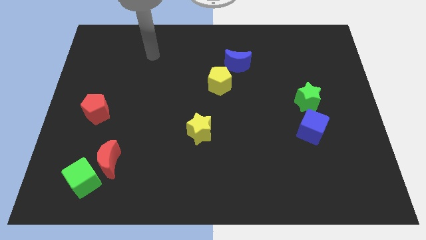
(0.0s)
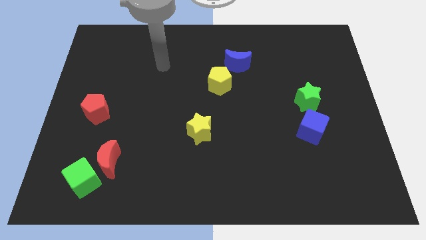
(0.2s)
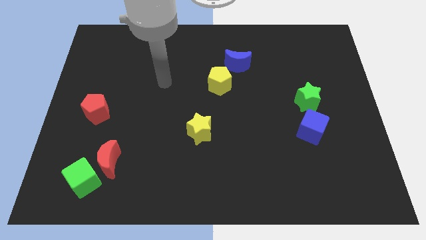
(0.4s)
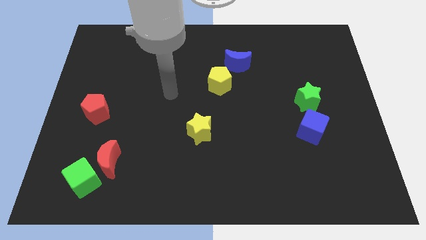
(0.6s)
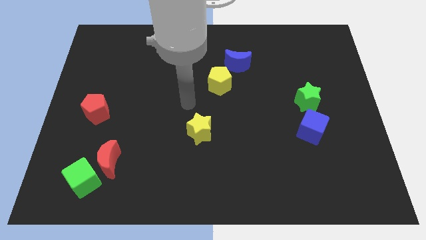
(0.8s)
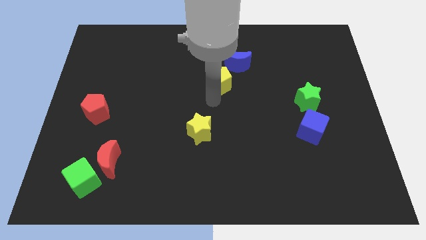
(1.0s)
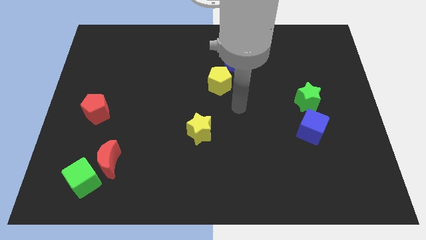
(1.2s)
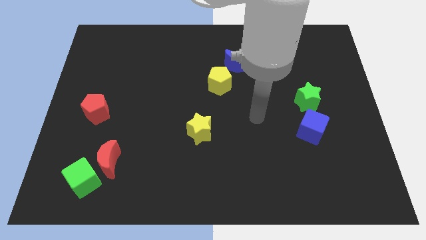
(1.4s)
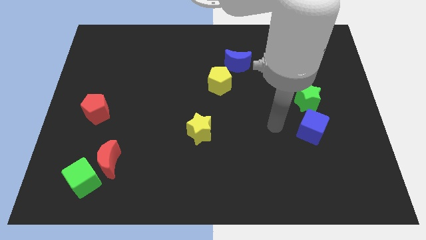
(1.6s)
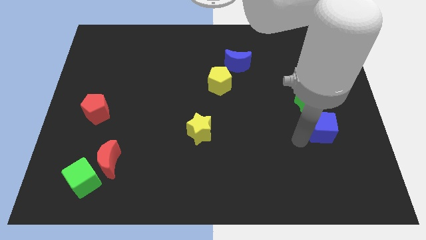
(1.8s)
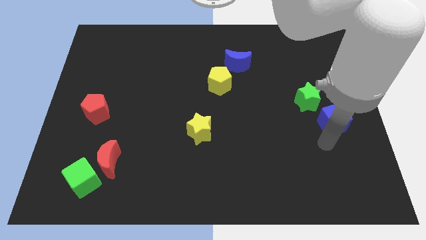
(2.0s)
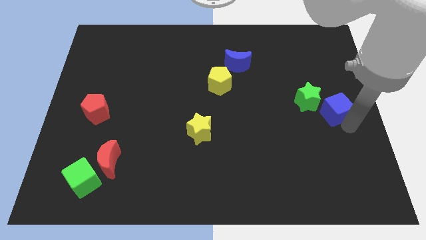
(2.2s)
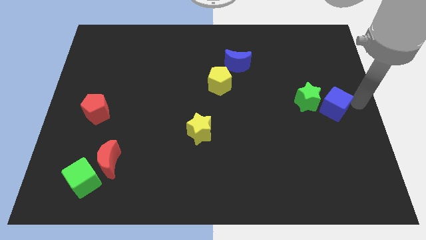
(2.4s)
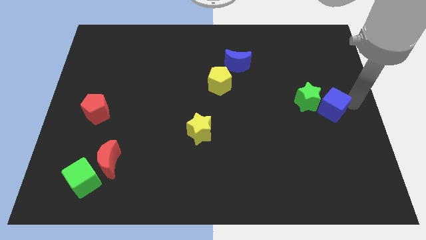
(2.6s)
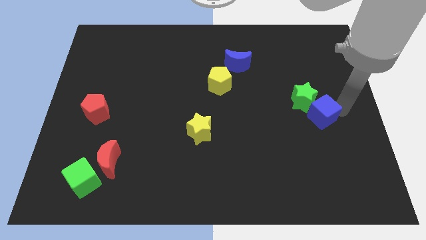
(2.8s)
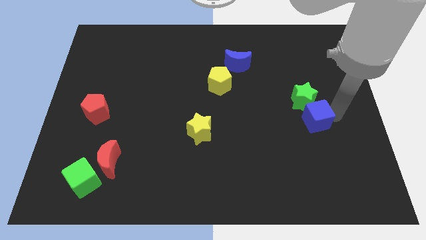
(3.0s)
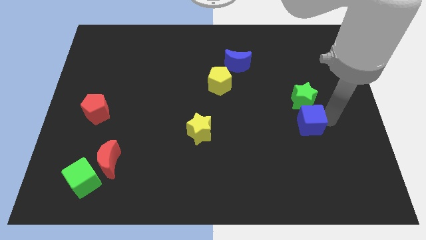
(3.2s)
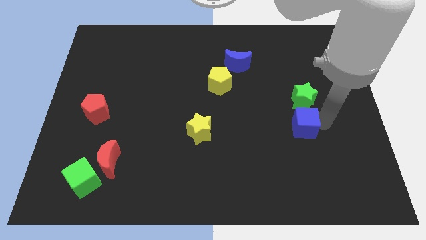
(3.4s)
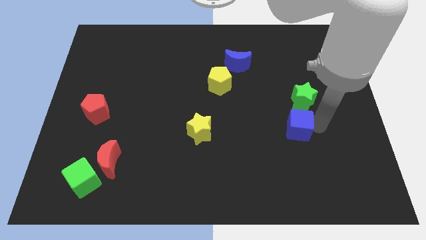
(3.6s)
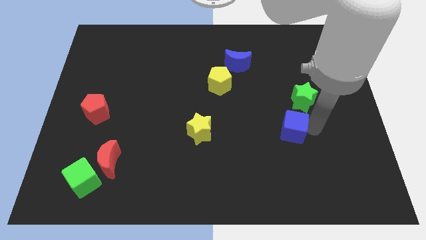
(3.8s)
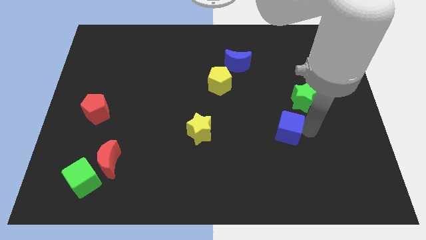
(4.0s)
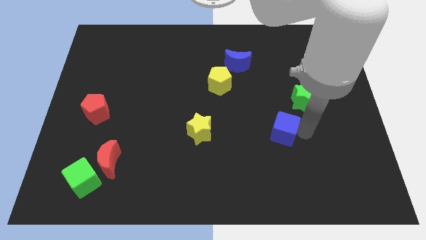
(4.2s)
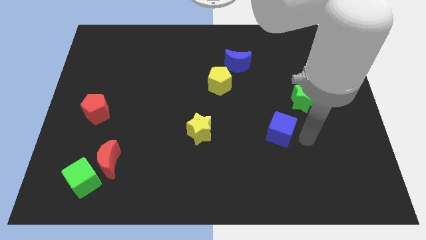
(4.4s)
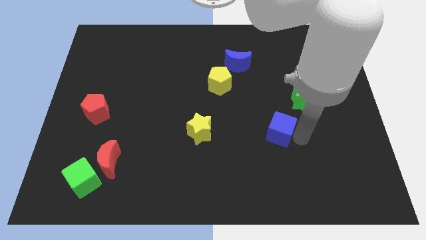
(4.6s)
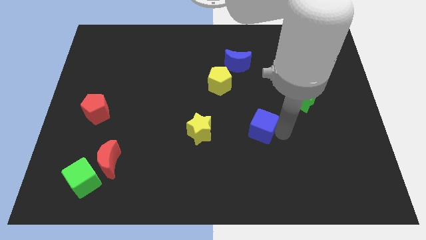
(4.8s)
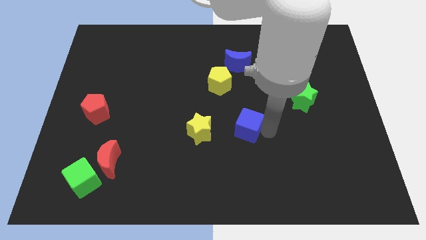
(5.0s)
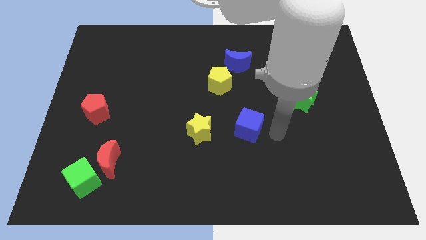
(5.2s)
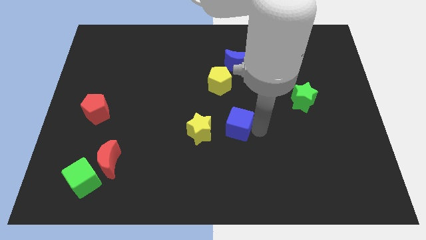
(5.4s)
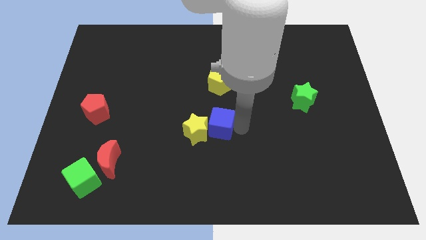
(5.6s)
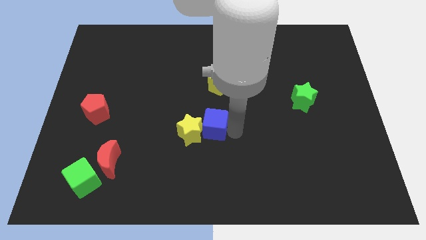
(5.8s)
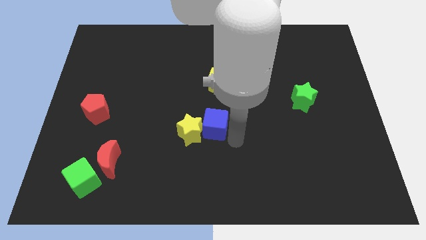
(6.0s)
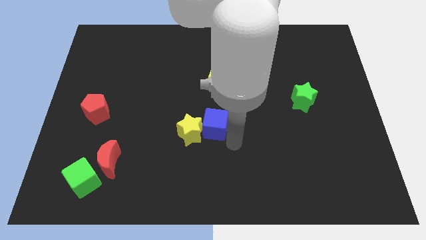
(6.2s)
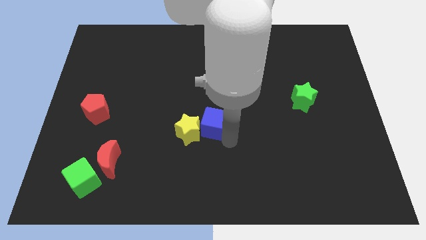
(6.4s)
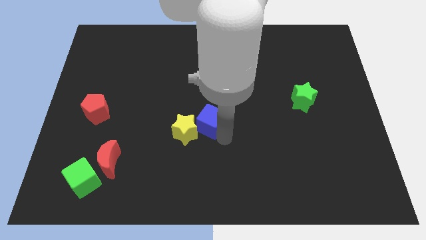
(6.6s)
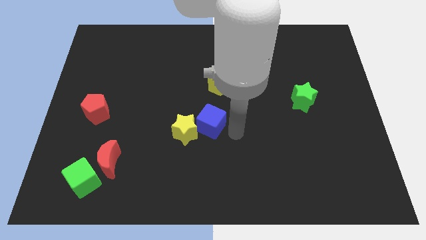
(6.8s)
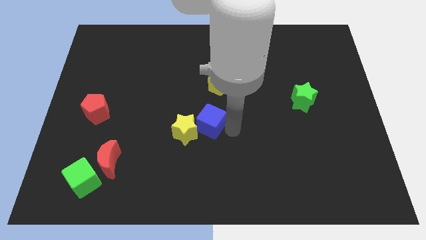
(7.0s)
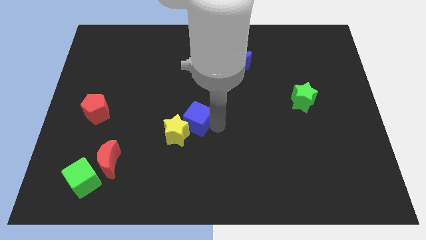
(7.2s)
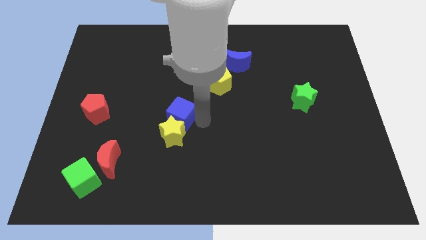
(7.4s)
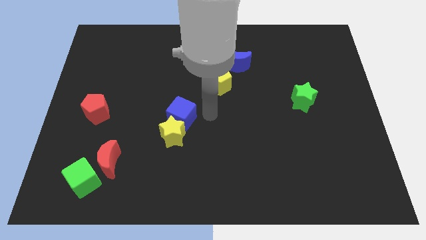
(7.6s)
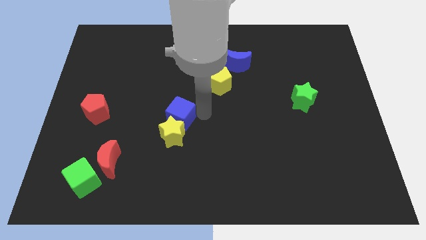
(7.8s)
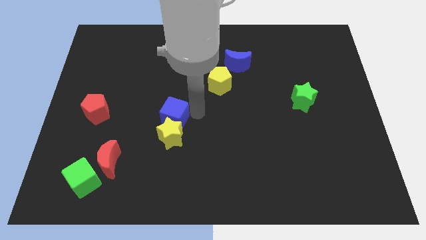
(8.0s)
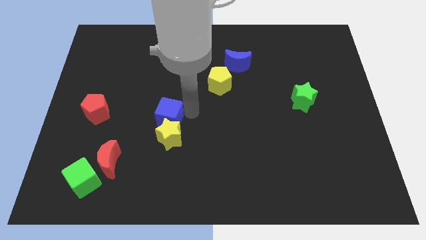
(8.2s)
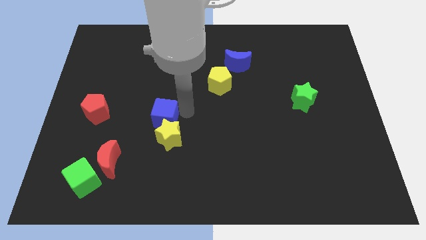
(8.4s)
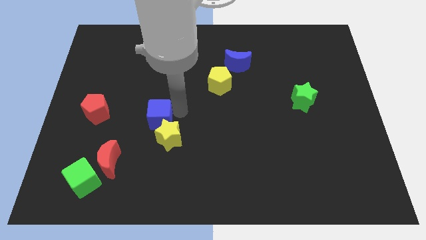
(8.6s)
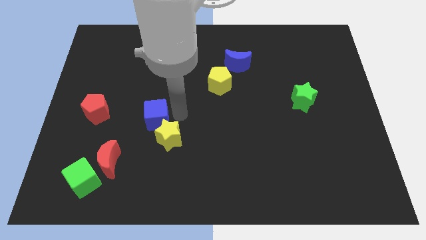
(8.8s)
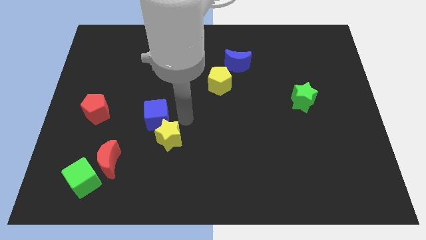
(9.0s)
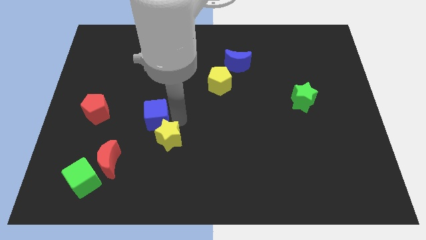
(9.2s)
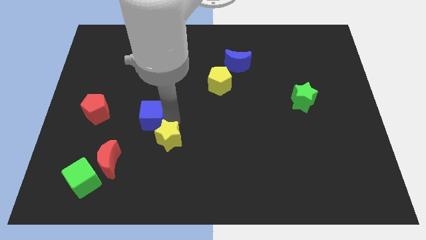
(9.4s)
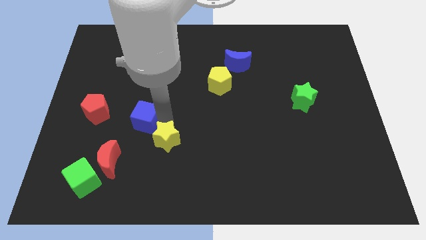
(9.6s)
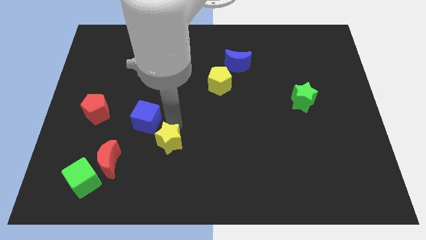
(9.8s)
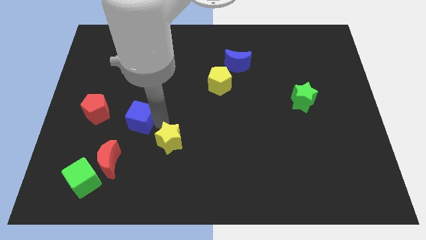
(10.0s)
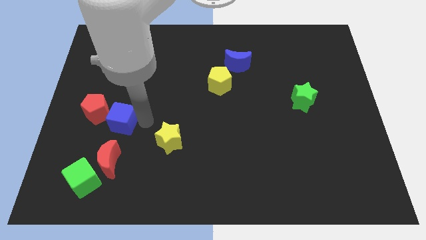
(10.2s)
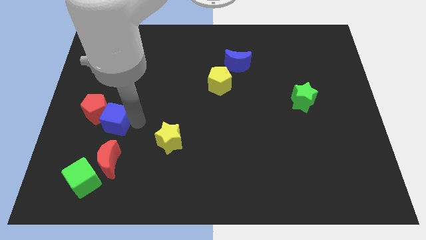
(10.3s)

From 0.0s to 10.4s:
put the blue cube next to the red pentagon

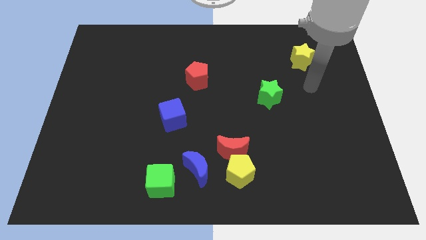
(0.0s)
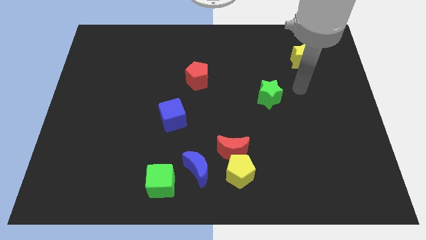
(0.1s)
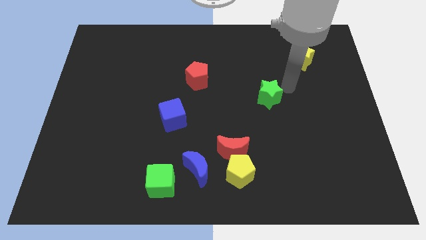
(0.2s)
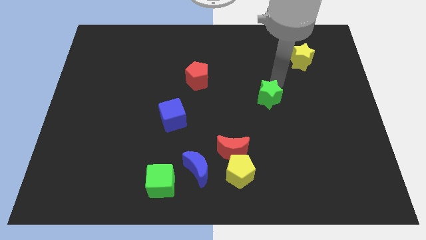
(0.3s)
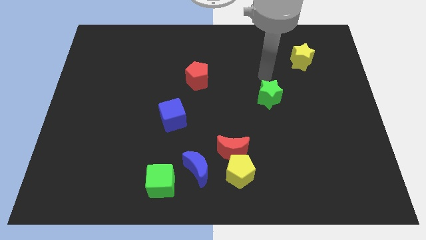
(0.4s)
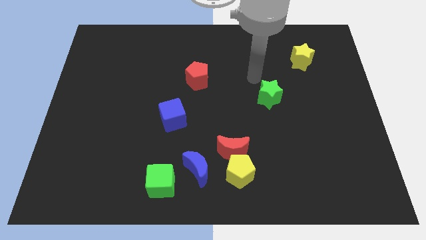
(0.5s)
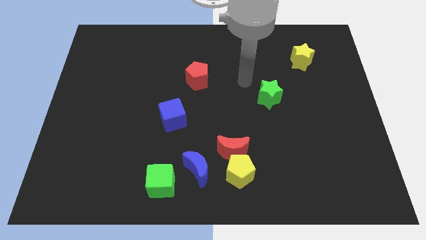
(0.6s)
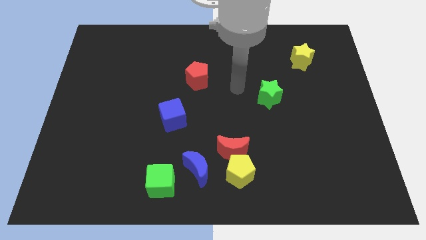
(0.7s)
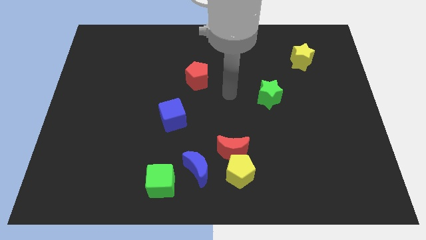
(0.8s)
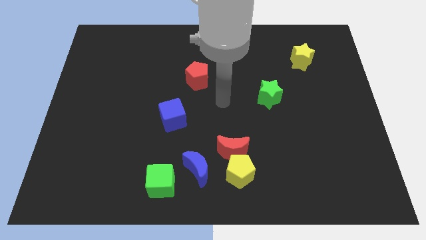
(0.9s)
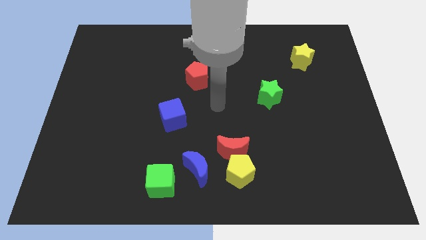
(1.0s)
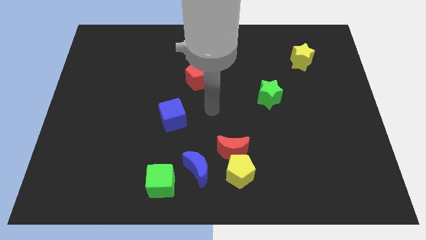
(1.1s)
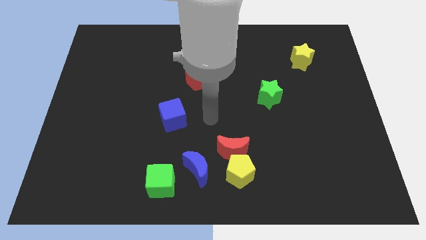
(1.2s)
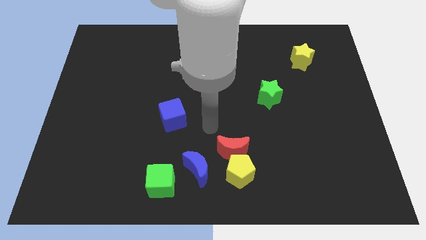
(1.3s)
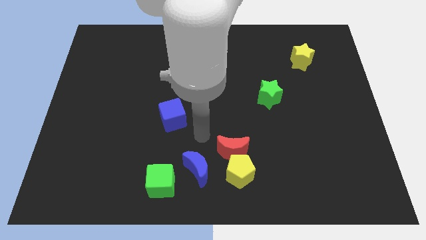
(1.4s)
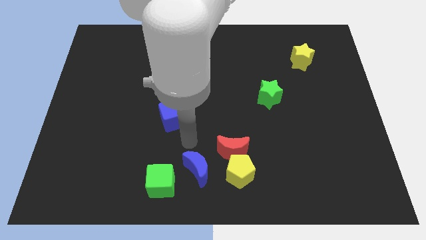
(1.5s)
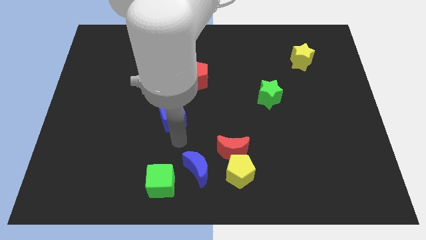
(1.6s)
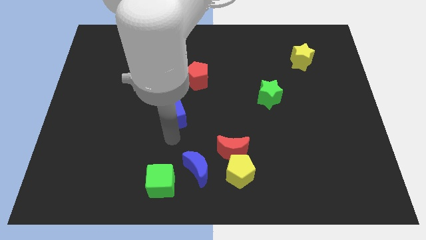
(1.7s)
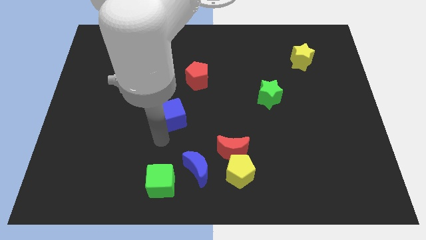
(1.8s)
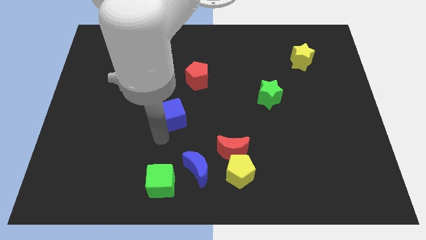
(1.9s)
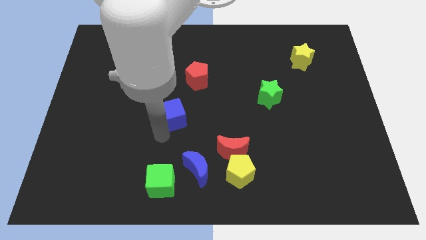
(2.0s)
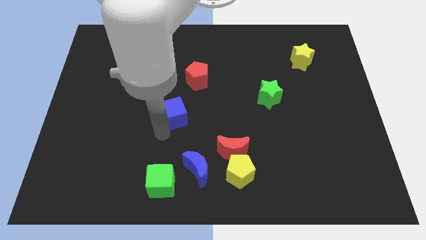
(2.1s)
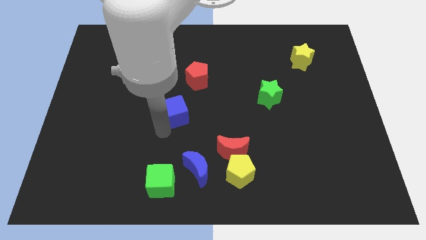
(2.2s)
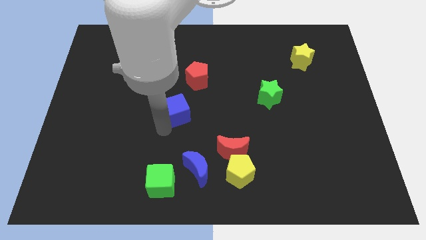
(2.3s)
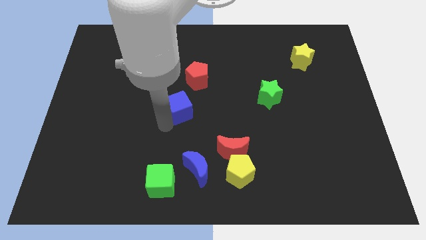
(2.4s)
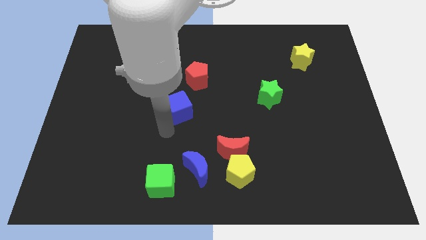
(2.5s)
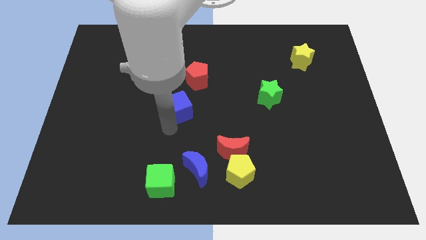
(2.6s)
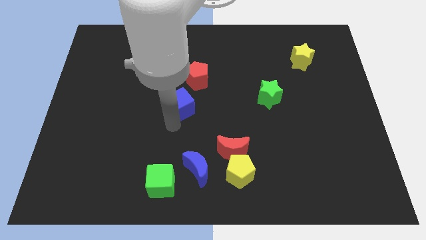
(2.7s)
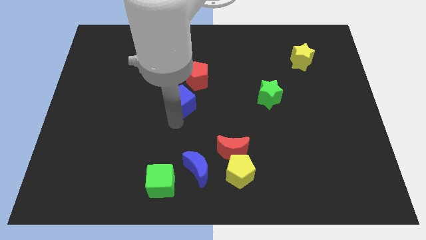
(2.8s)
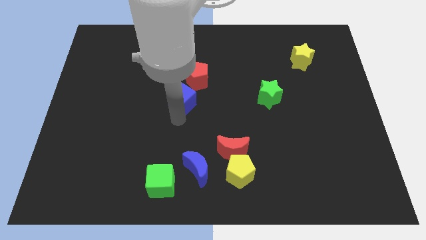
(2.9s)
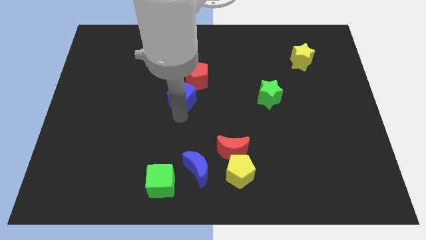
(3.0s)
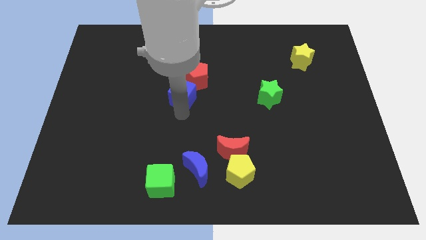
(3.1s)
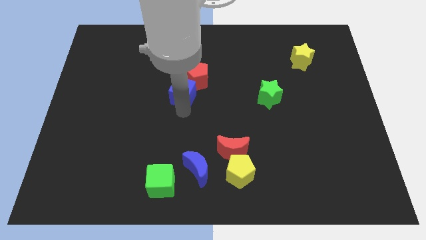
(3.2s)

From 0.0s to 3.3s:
push the blue cube towards the red pentagon
